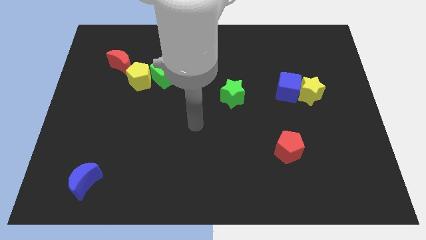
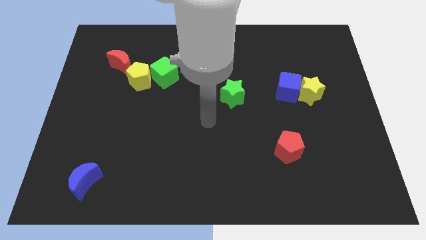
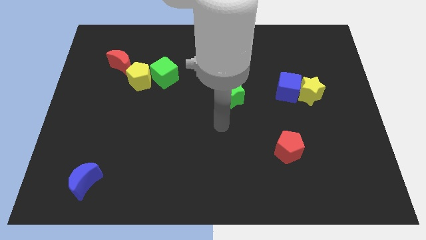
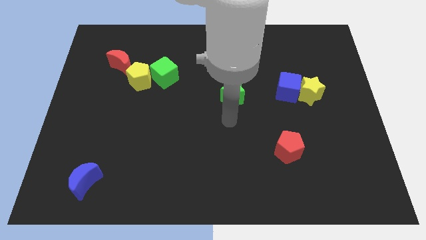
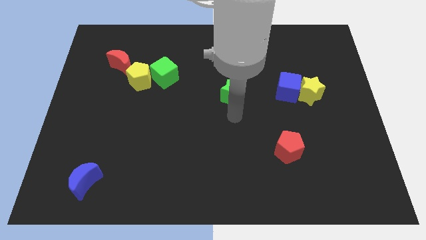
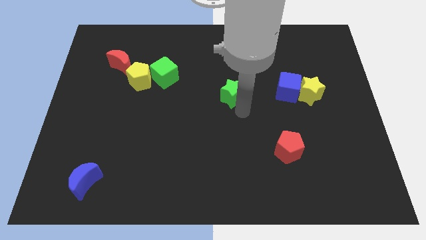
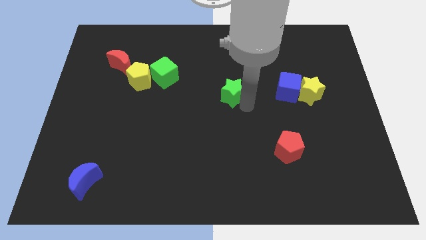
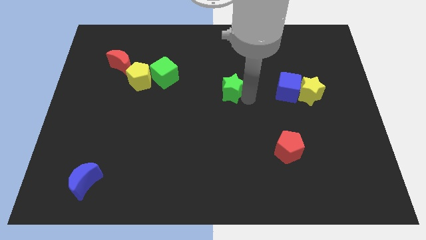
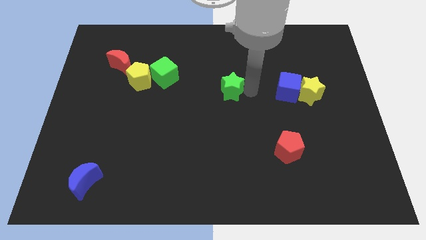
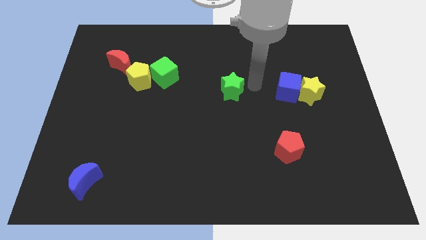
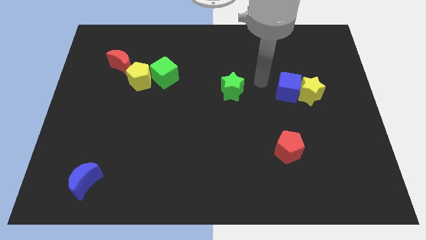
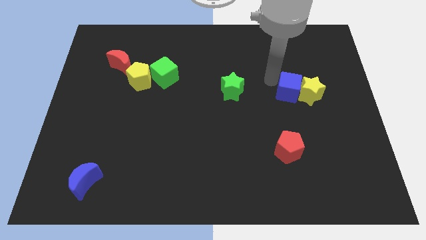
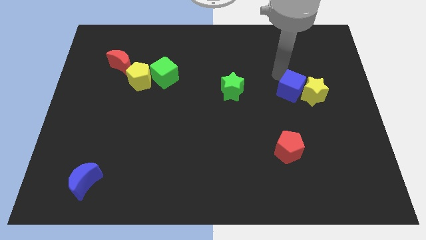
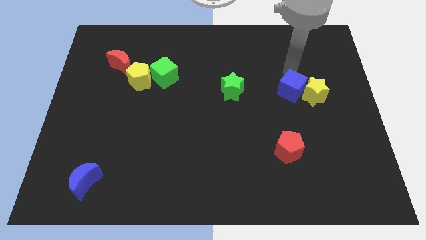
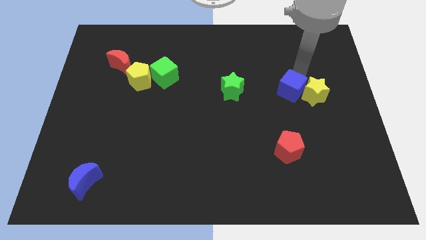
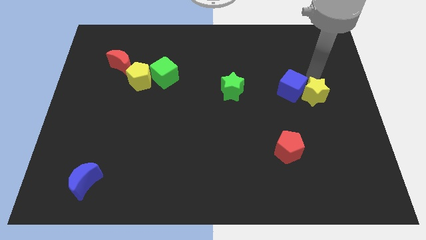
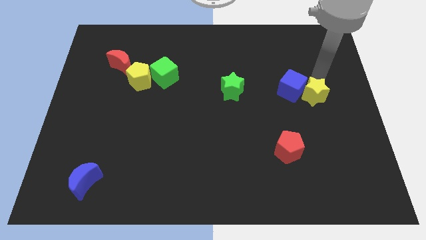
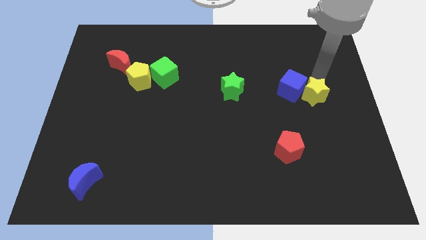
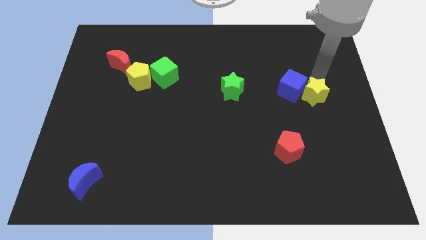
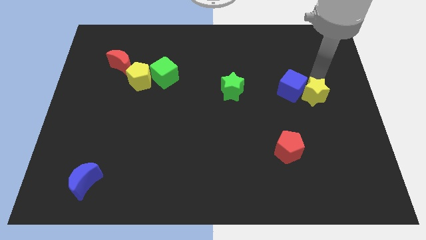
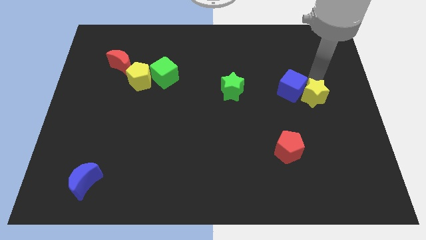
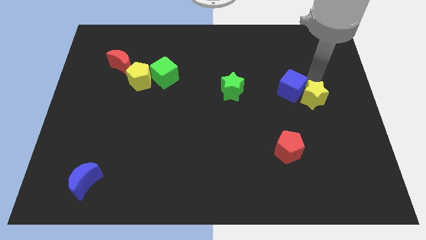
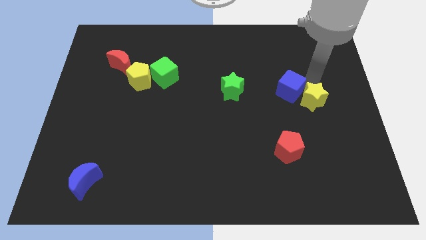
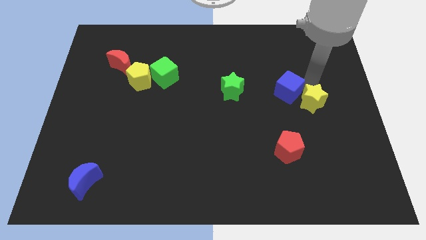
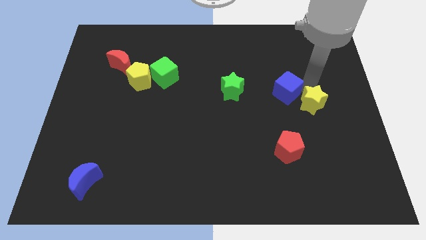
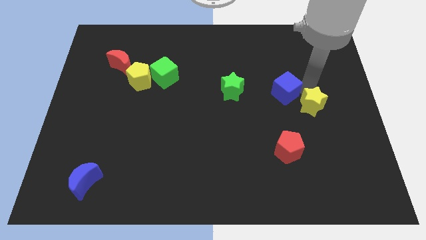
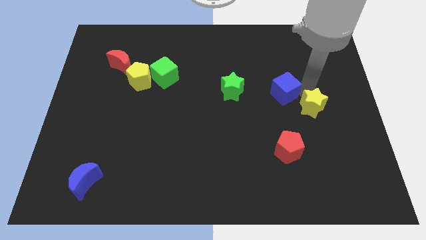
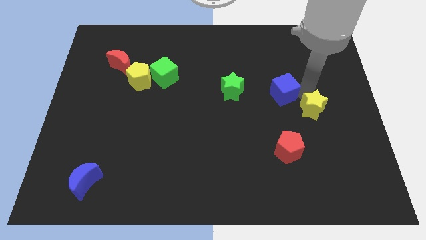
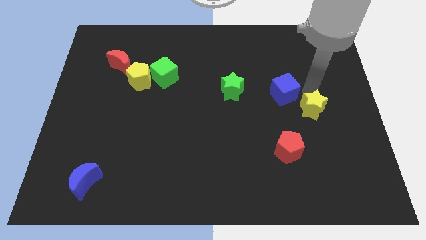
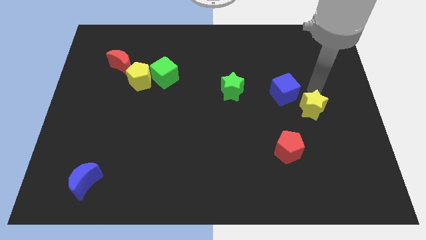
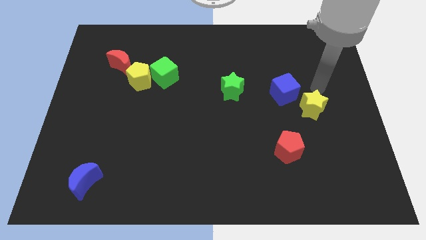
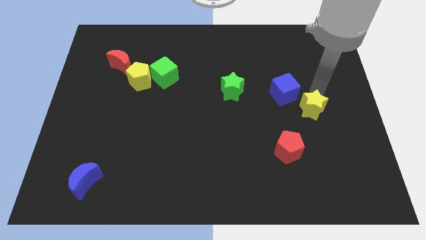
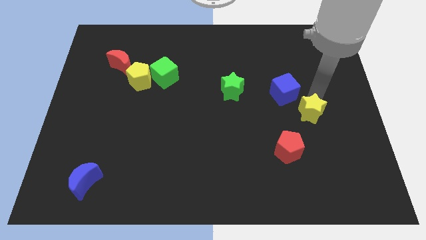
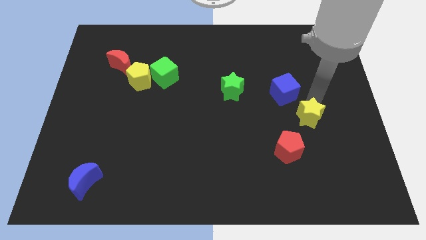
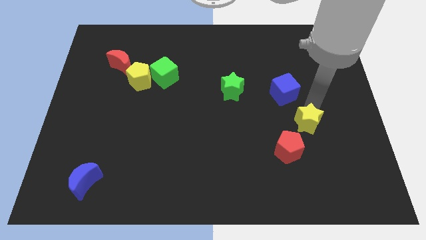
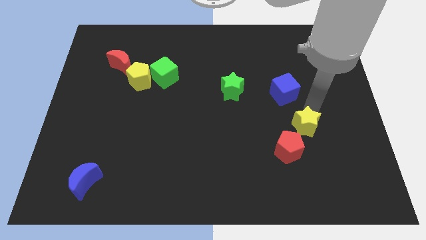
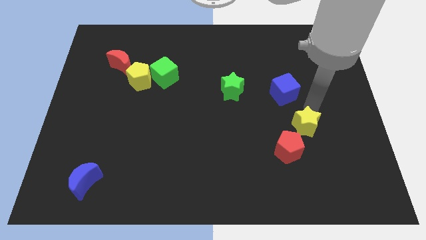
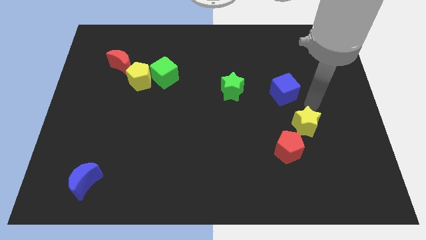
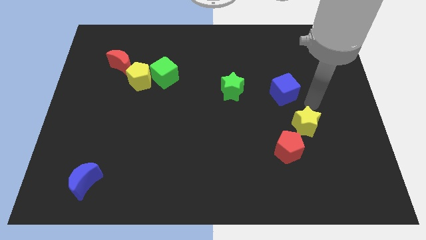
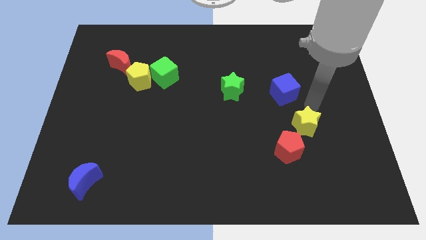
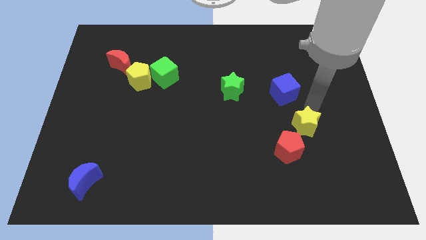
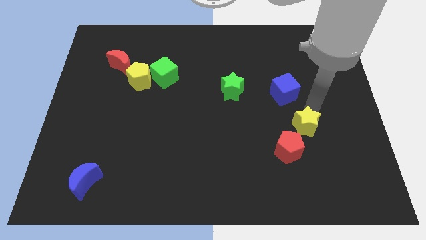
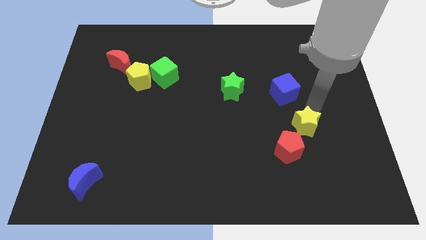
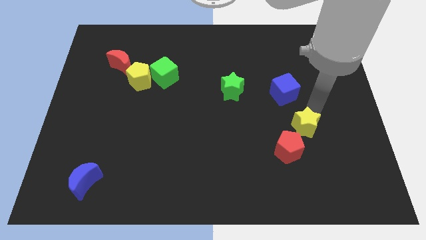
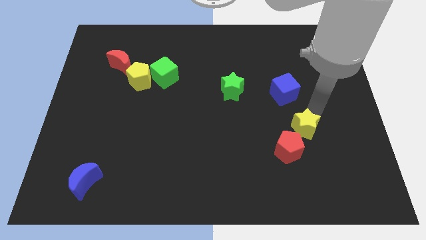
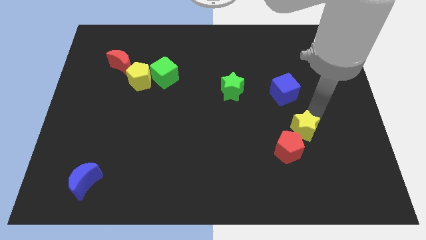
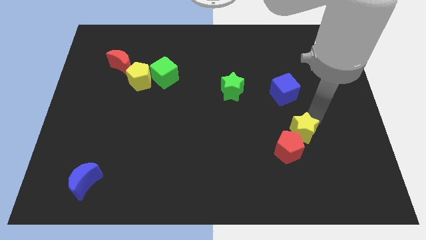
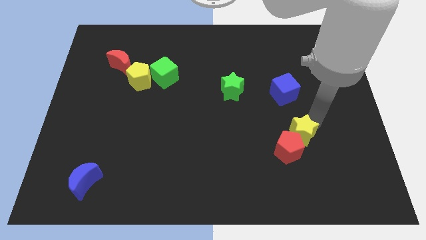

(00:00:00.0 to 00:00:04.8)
slide the yellow star towards the red pentagon

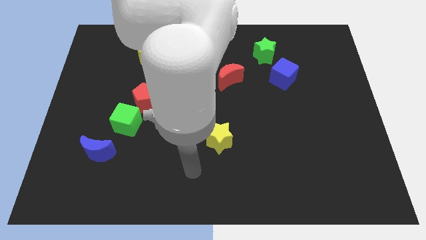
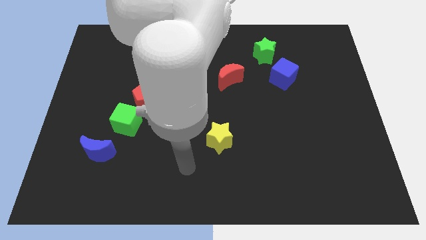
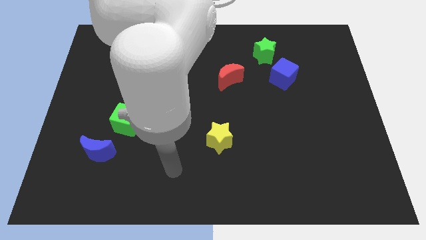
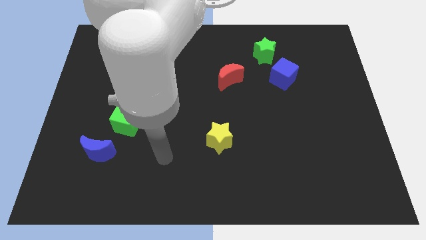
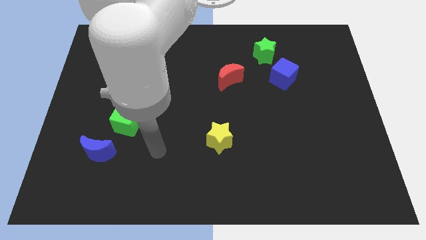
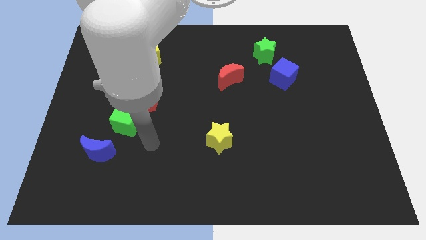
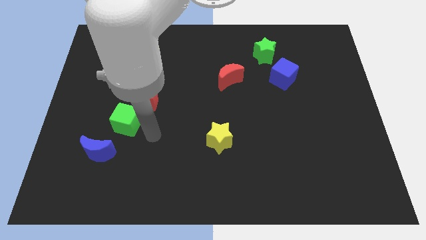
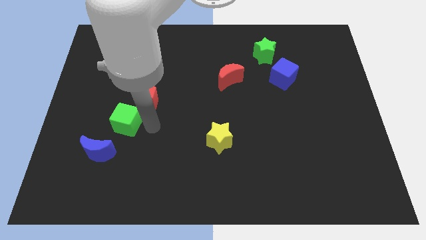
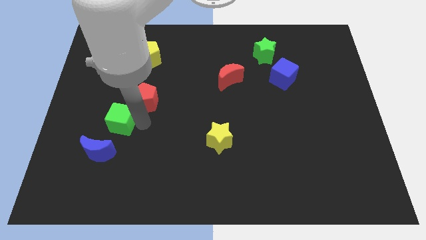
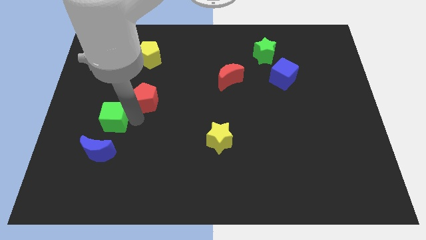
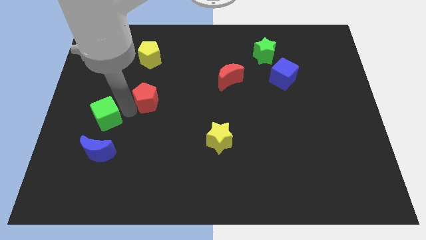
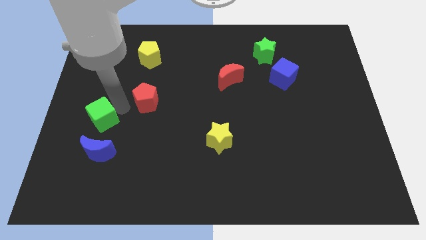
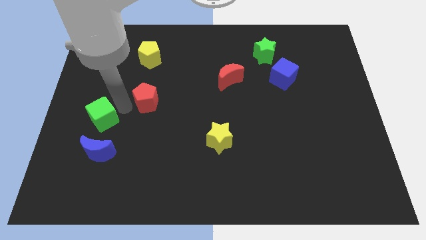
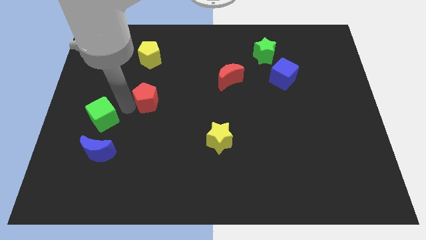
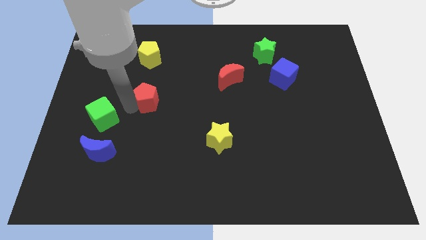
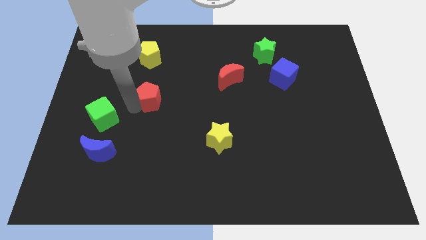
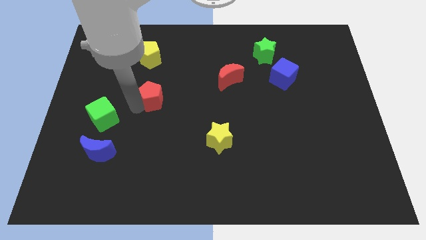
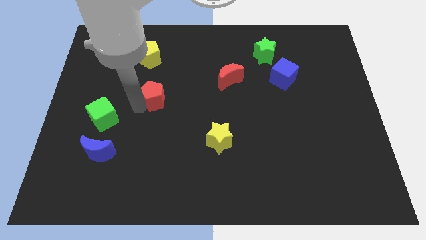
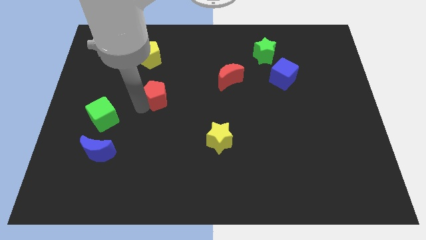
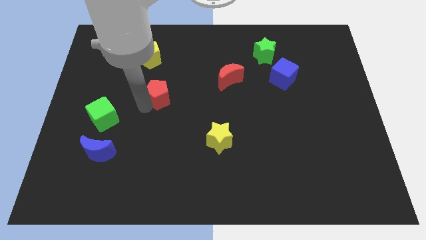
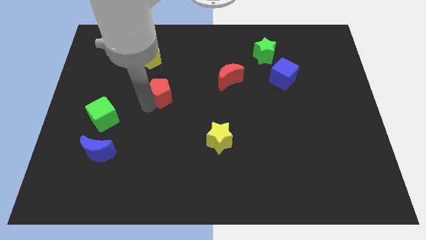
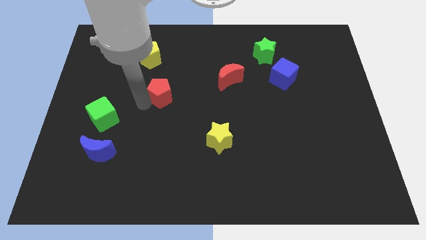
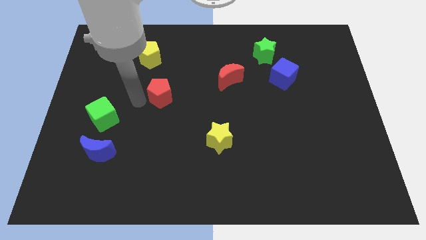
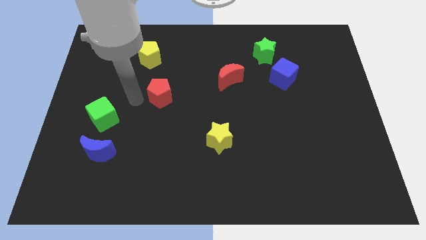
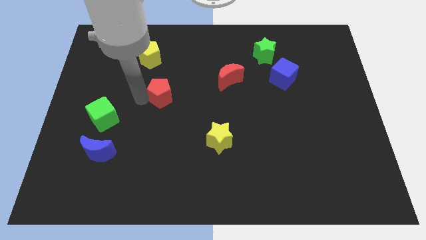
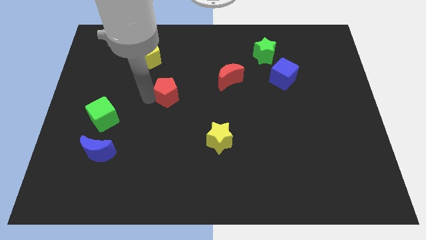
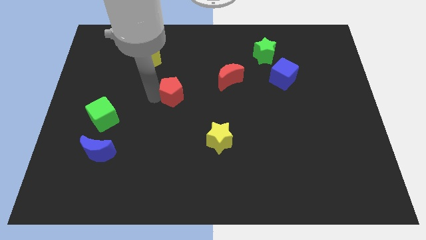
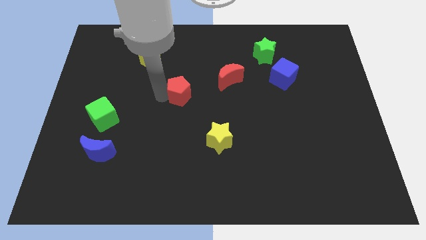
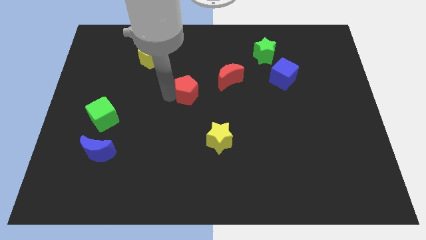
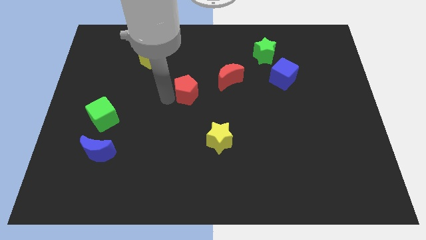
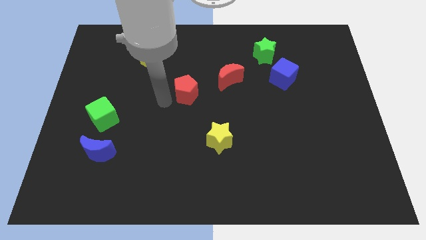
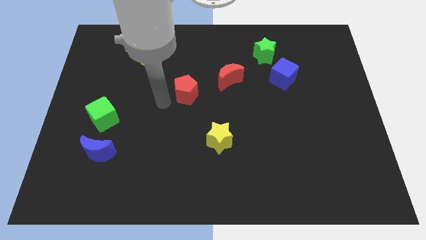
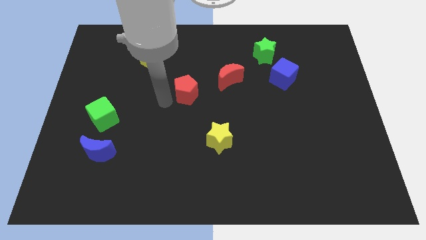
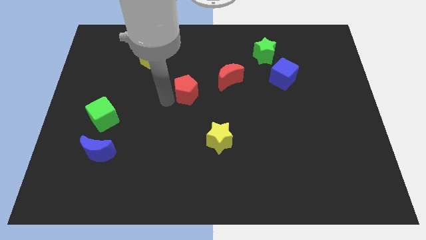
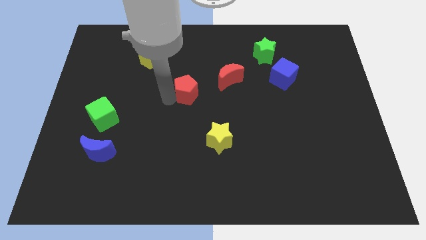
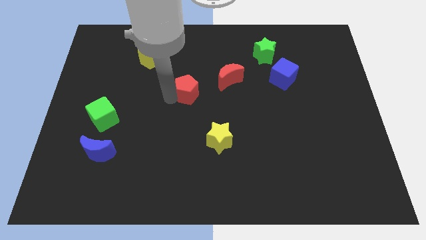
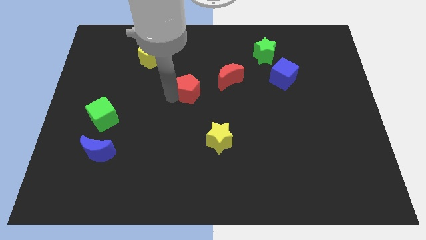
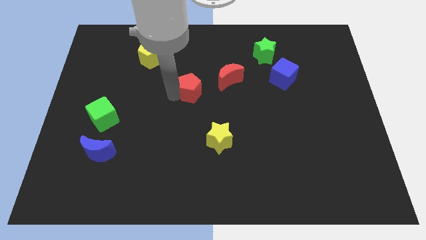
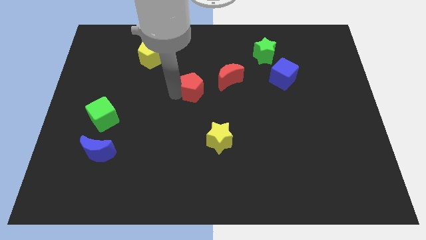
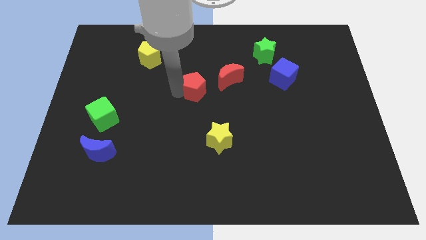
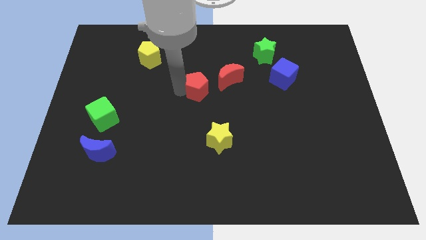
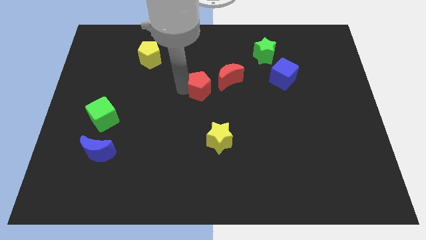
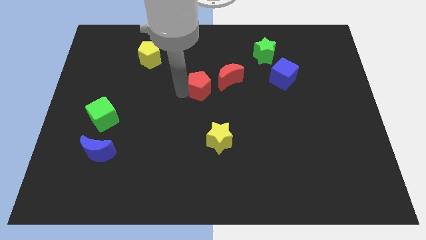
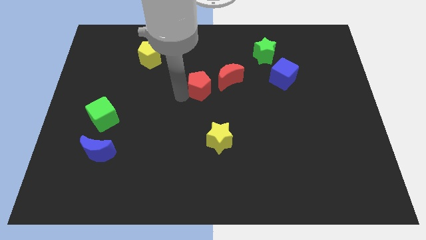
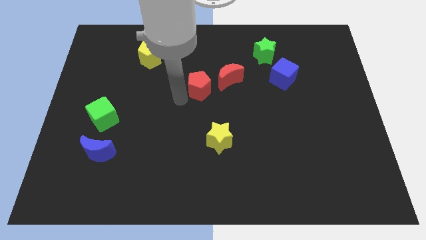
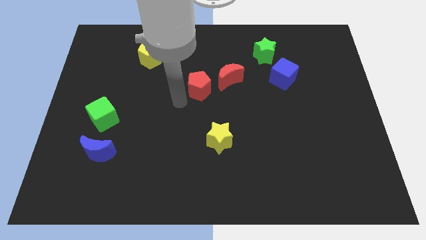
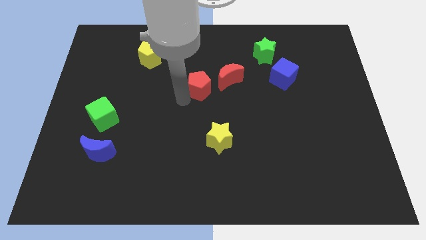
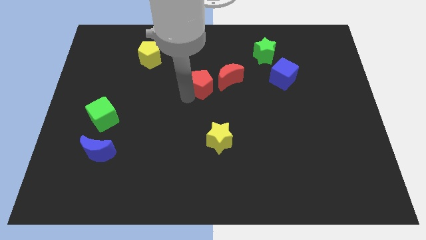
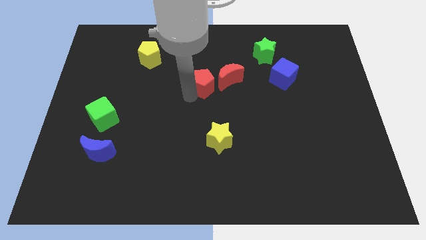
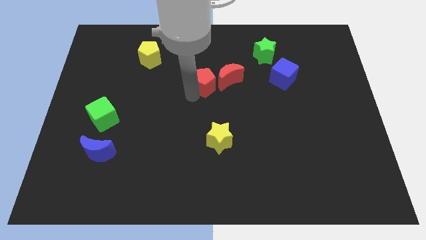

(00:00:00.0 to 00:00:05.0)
put the red pentagon next to the red moon
